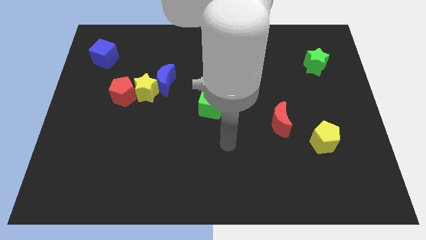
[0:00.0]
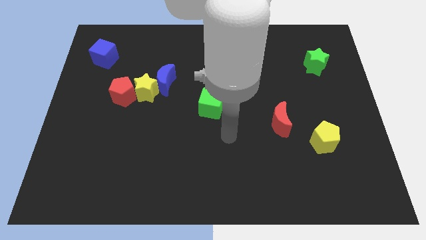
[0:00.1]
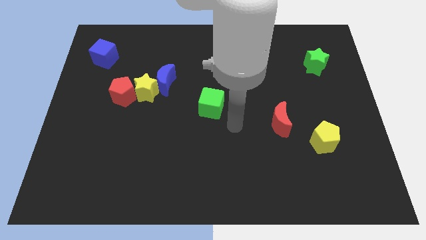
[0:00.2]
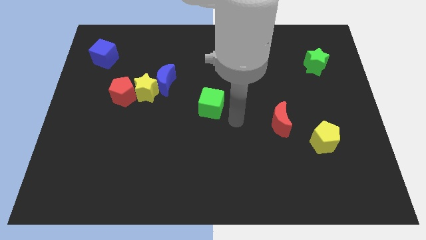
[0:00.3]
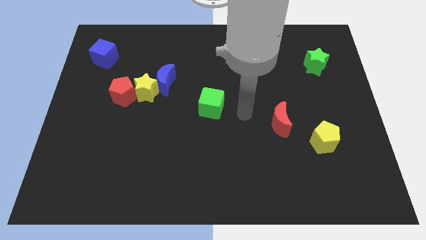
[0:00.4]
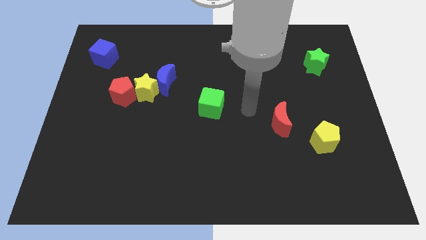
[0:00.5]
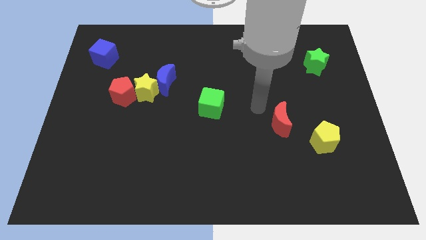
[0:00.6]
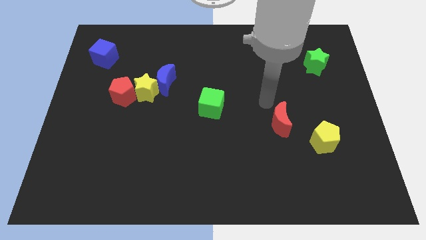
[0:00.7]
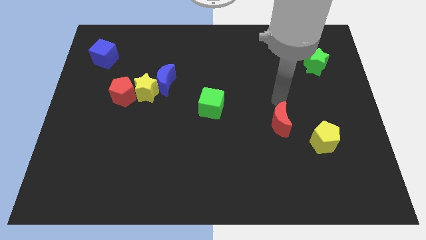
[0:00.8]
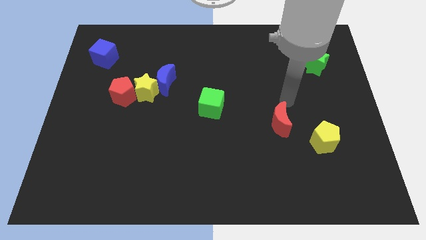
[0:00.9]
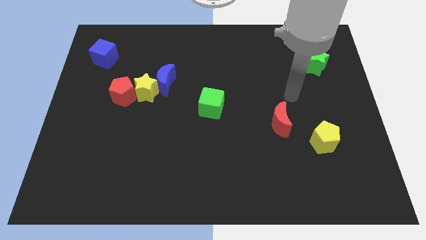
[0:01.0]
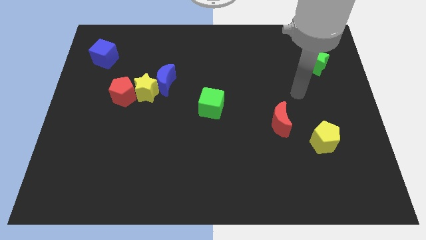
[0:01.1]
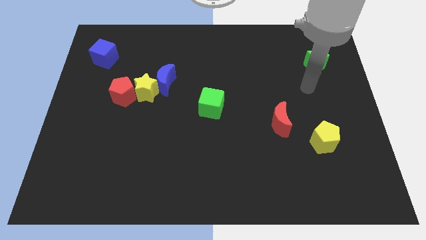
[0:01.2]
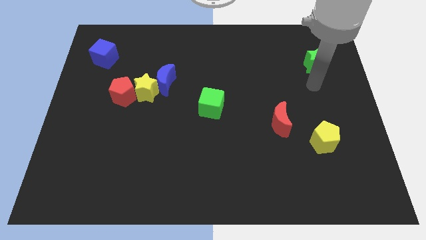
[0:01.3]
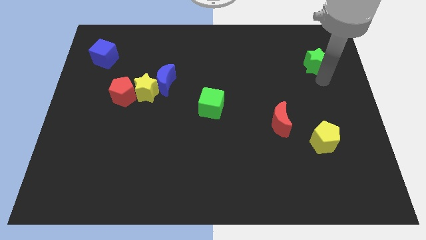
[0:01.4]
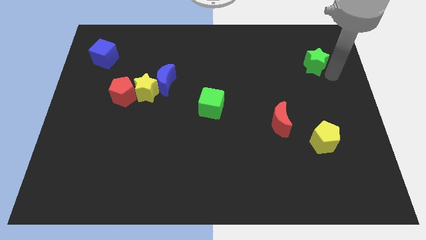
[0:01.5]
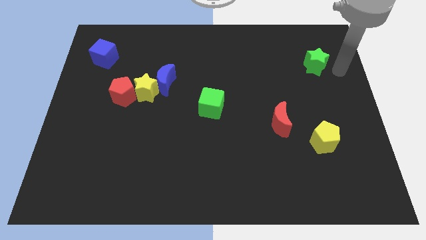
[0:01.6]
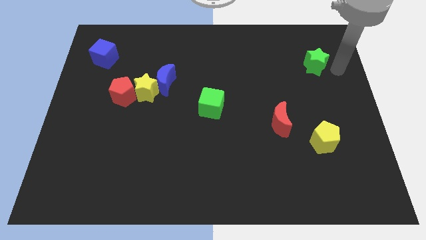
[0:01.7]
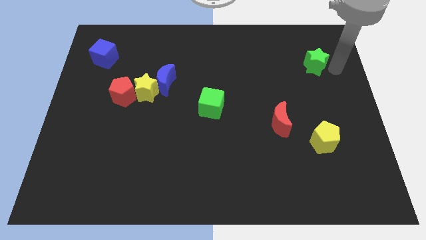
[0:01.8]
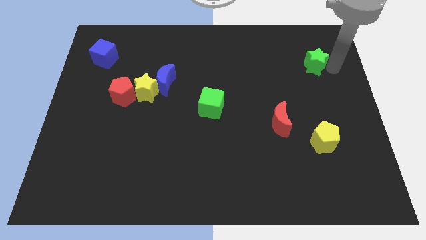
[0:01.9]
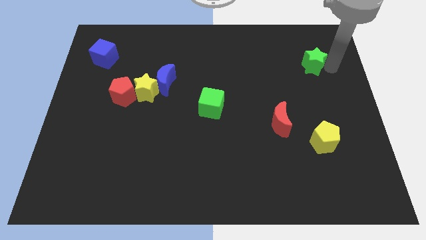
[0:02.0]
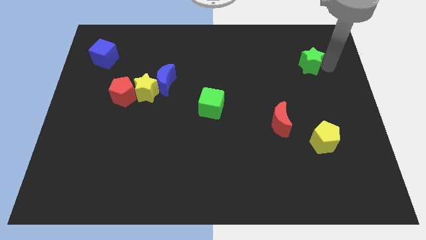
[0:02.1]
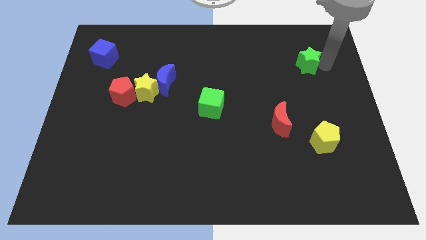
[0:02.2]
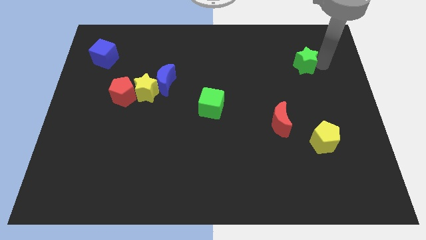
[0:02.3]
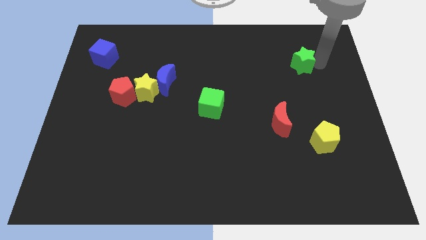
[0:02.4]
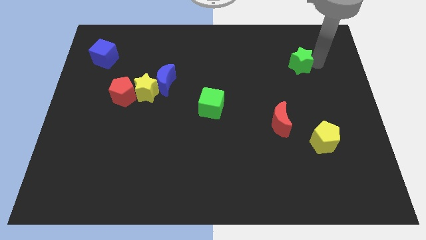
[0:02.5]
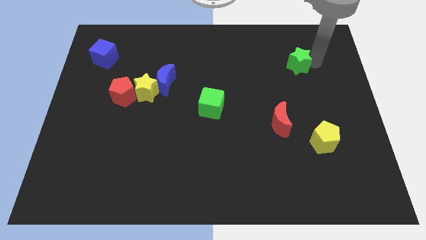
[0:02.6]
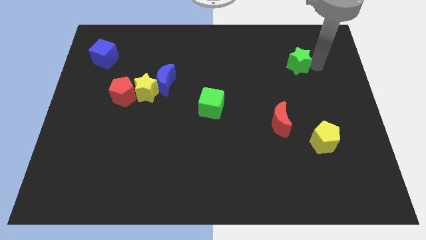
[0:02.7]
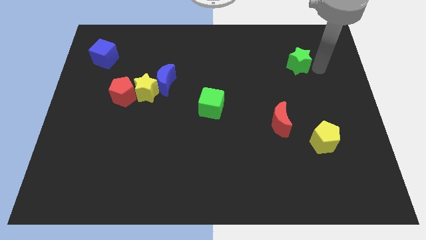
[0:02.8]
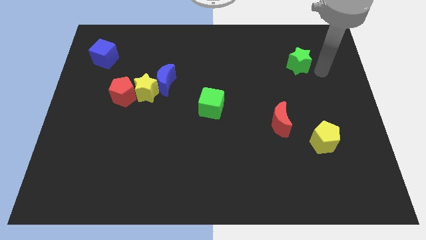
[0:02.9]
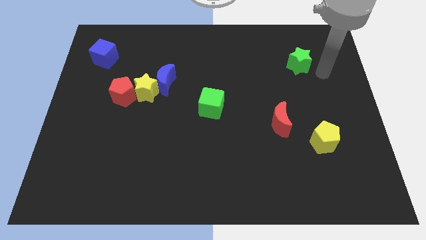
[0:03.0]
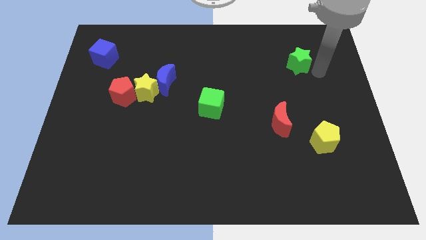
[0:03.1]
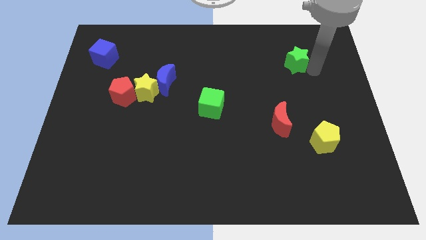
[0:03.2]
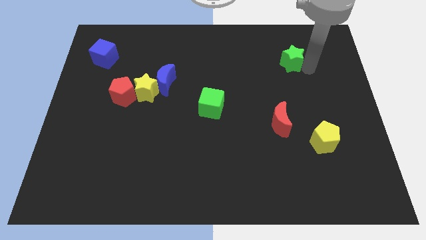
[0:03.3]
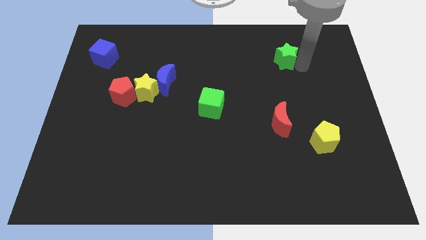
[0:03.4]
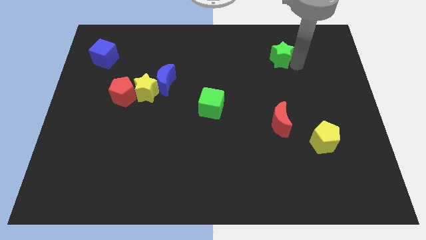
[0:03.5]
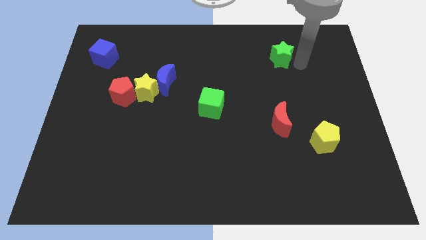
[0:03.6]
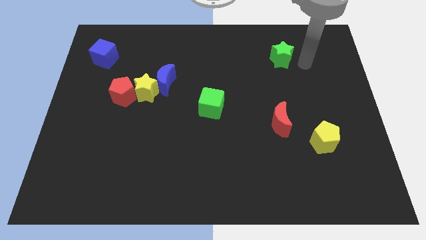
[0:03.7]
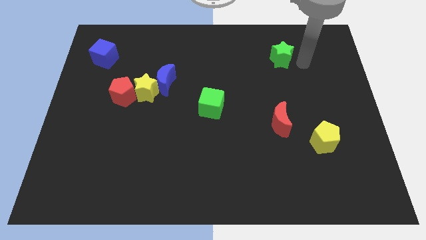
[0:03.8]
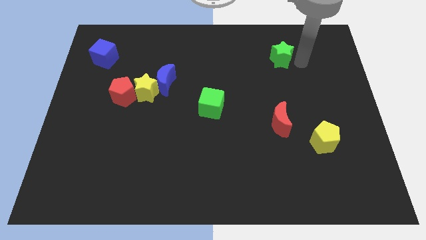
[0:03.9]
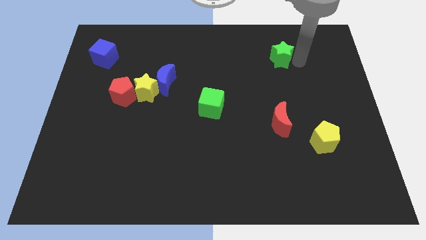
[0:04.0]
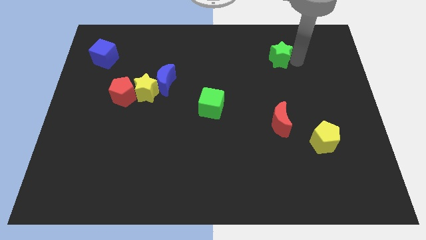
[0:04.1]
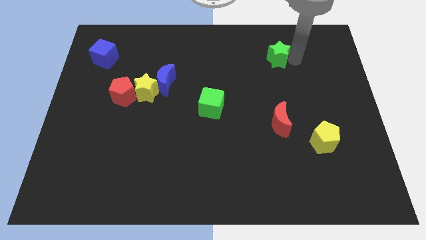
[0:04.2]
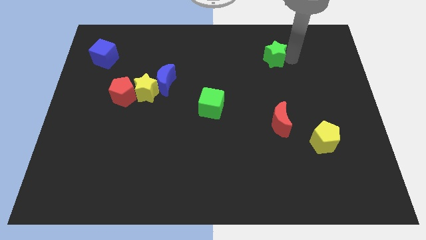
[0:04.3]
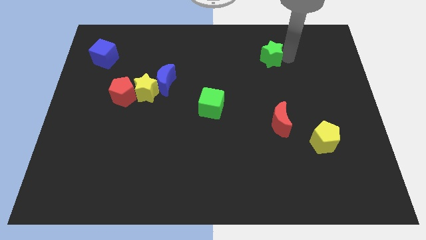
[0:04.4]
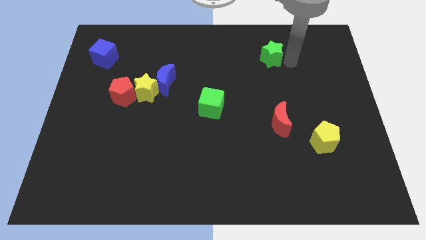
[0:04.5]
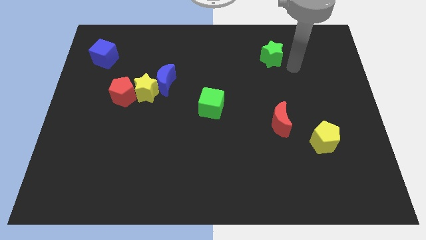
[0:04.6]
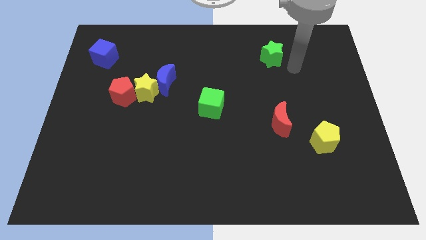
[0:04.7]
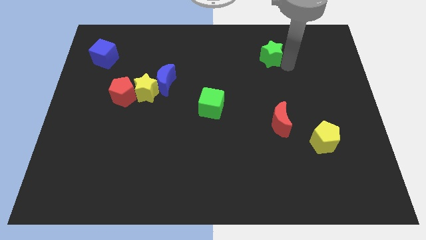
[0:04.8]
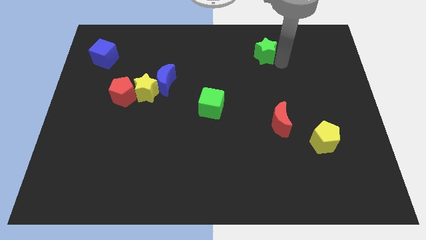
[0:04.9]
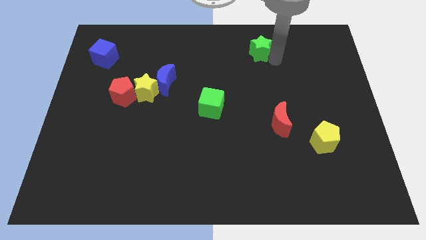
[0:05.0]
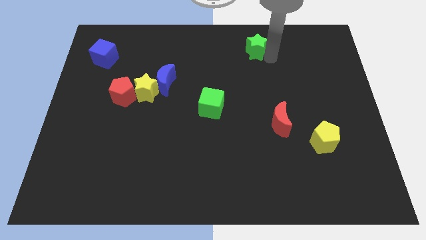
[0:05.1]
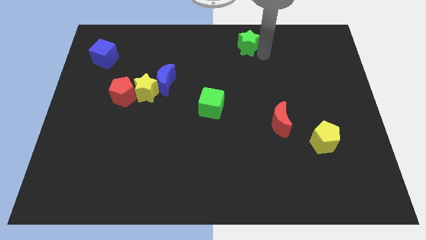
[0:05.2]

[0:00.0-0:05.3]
move the green star to the towards your base

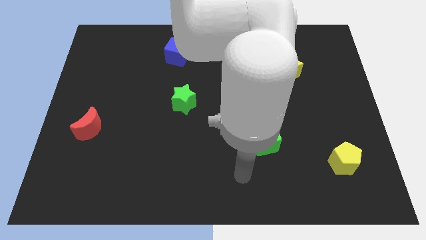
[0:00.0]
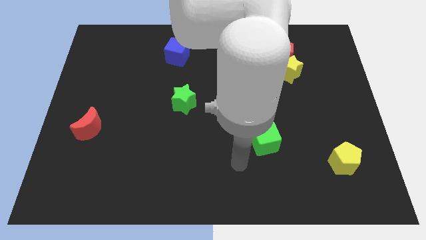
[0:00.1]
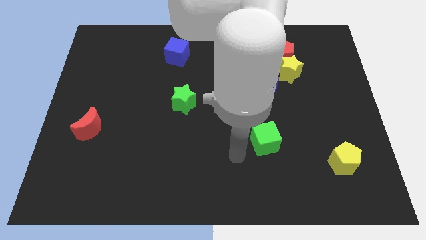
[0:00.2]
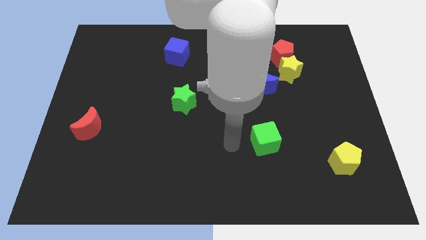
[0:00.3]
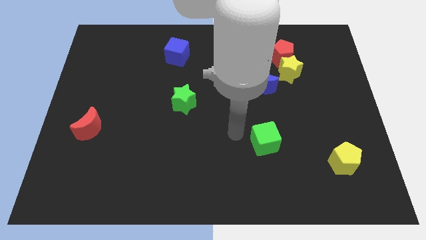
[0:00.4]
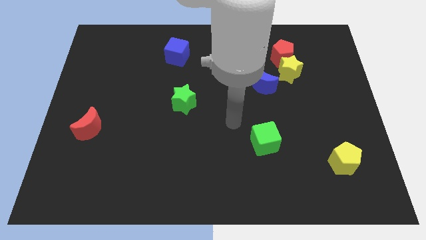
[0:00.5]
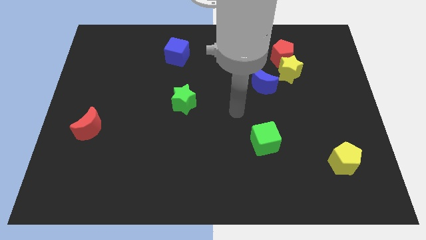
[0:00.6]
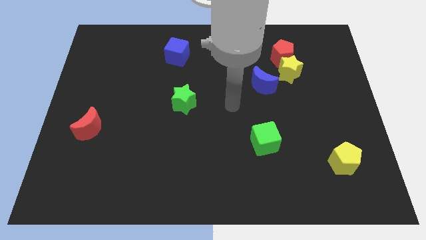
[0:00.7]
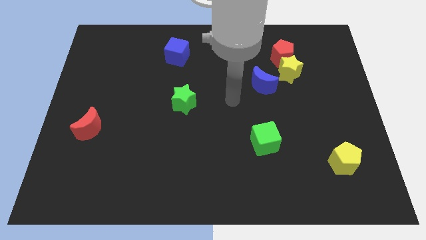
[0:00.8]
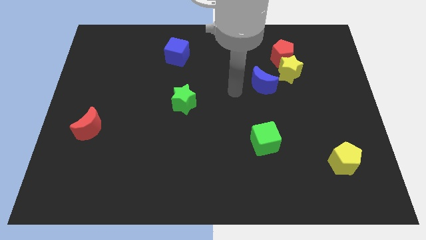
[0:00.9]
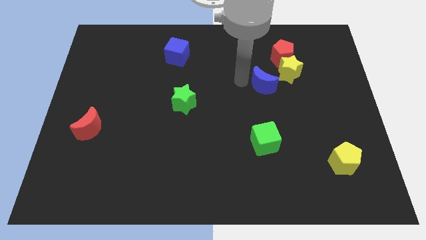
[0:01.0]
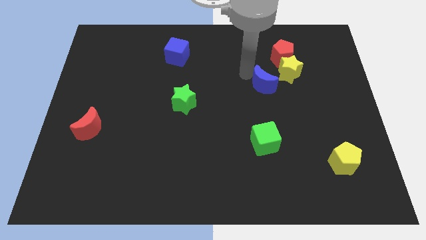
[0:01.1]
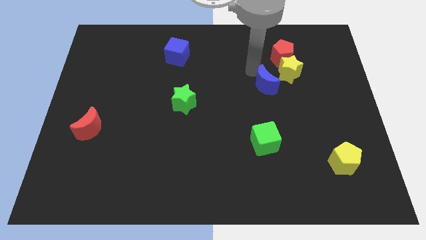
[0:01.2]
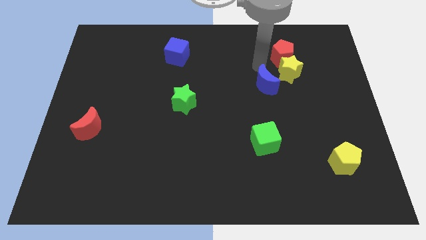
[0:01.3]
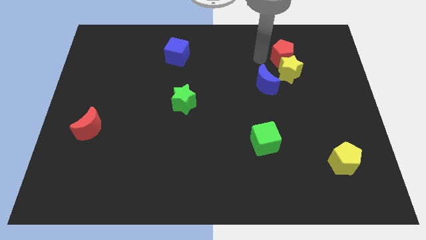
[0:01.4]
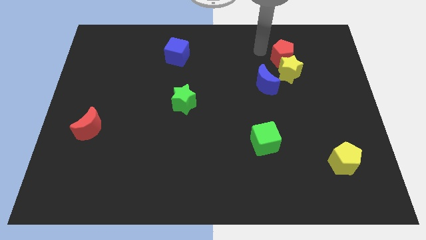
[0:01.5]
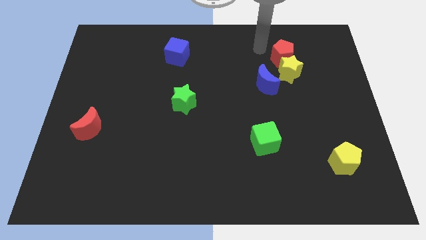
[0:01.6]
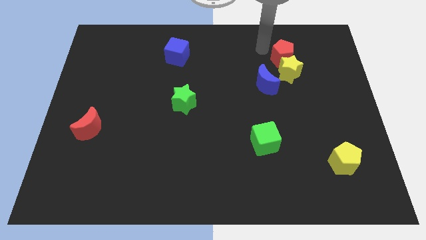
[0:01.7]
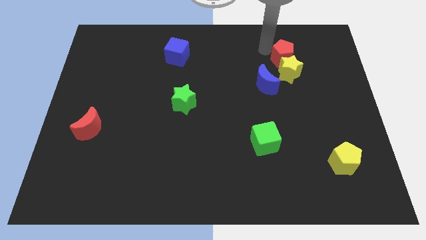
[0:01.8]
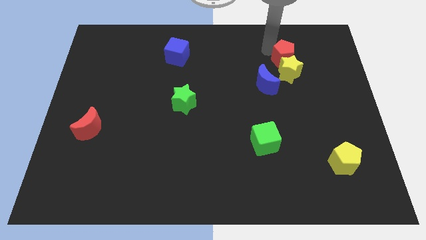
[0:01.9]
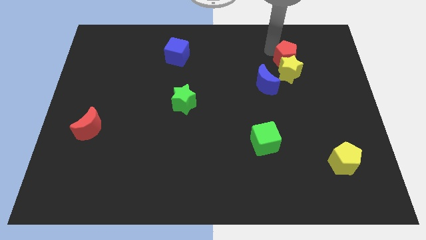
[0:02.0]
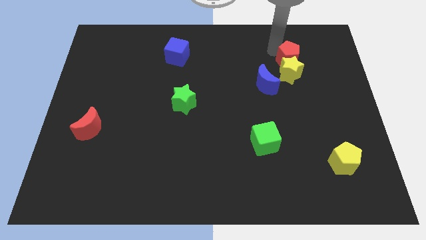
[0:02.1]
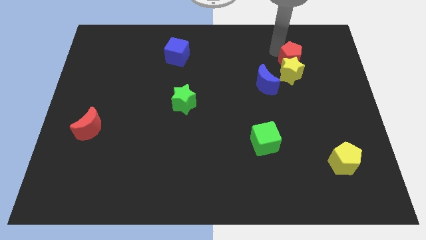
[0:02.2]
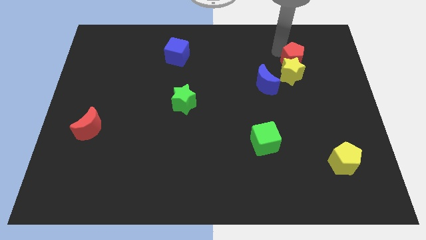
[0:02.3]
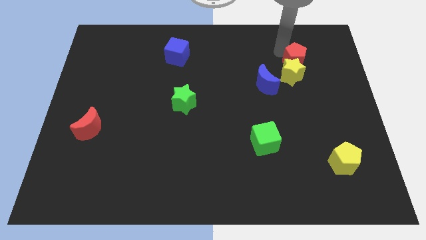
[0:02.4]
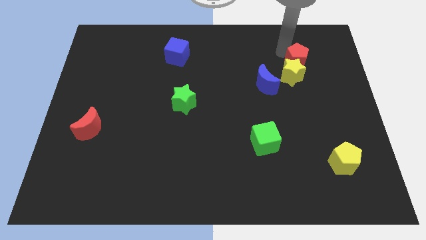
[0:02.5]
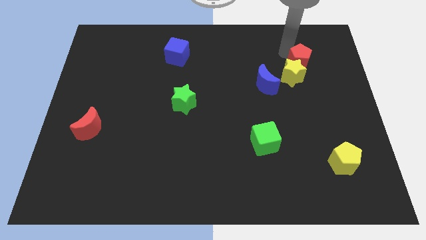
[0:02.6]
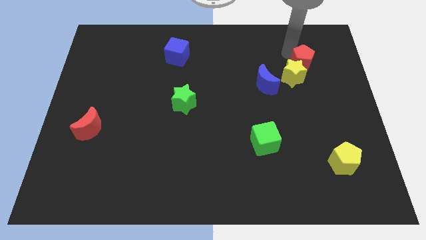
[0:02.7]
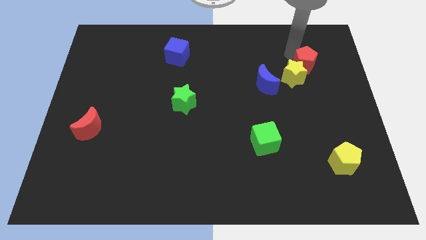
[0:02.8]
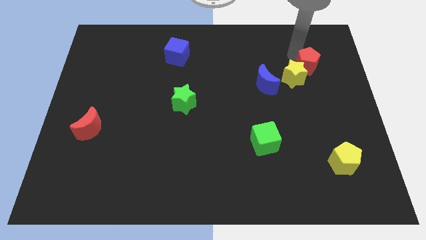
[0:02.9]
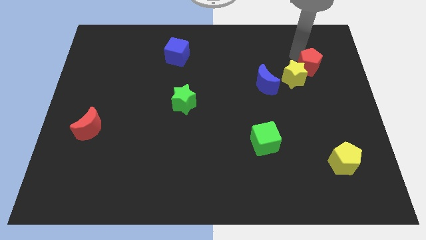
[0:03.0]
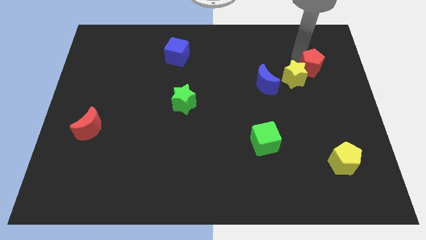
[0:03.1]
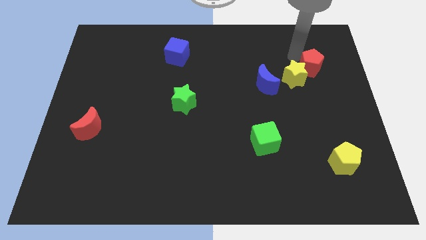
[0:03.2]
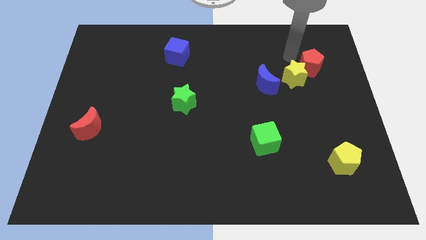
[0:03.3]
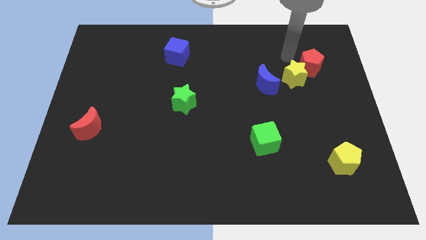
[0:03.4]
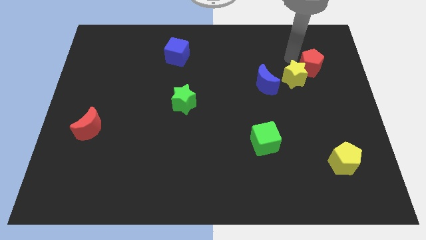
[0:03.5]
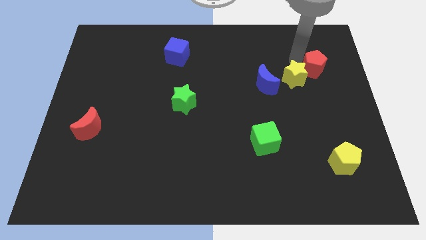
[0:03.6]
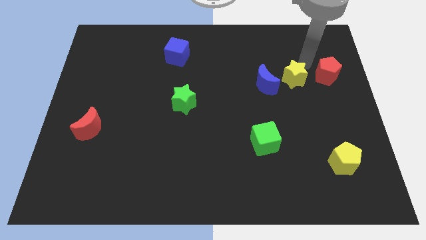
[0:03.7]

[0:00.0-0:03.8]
put the red pentagon to the right side of the board
